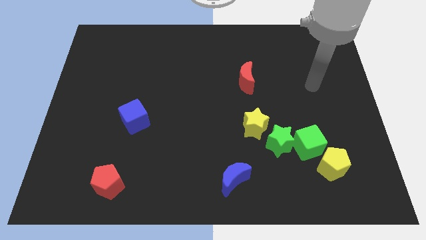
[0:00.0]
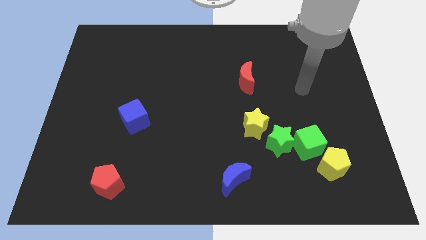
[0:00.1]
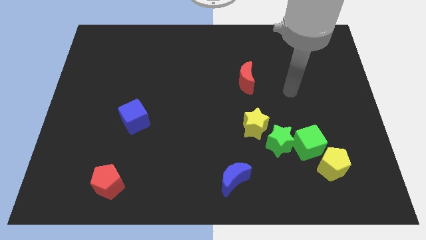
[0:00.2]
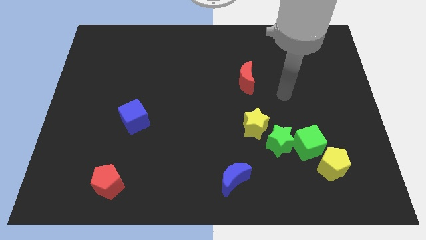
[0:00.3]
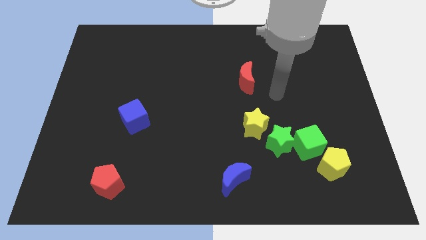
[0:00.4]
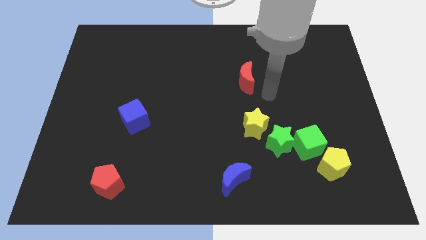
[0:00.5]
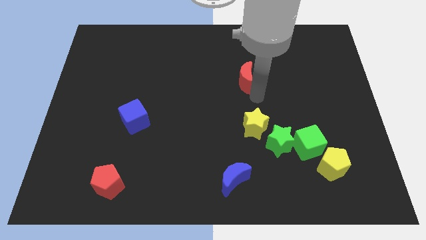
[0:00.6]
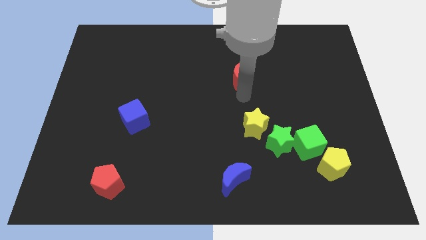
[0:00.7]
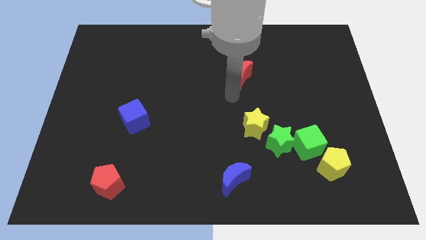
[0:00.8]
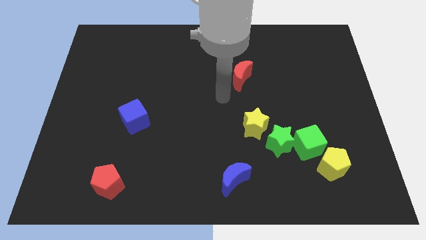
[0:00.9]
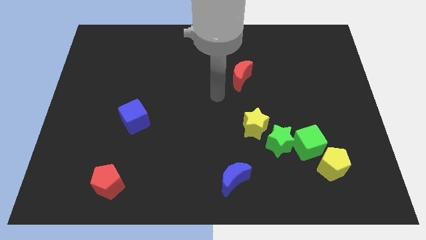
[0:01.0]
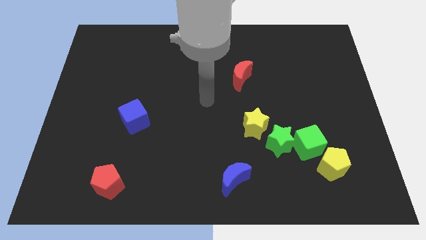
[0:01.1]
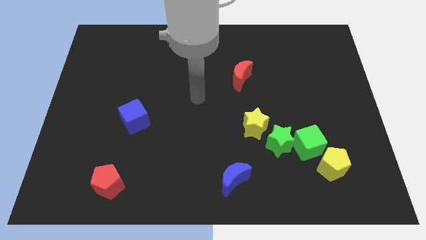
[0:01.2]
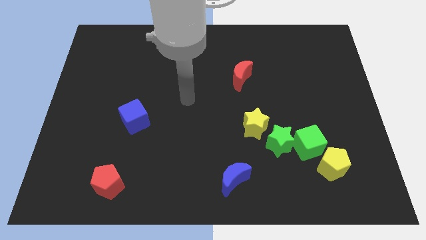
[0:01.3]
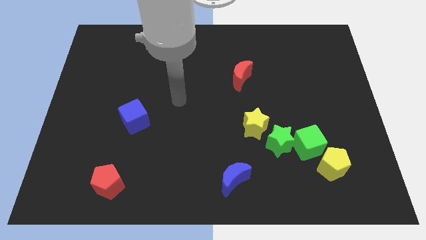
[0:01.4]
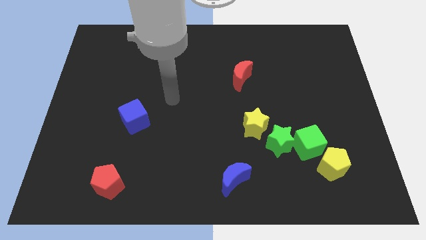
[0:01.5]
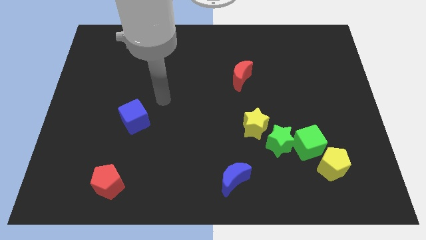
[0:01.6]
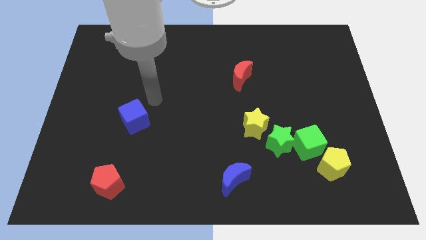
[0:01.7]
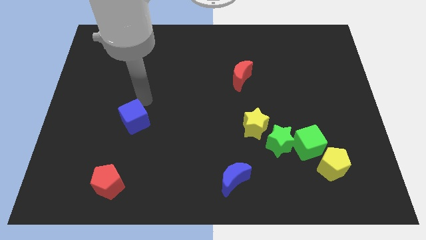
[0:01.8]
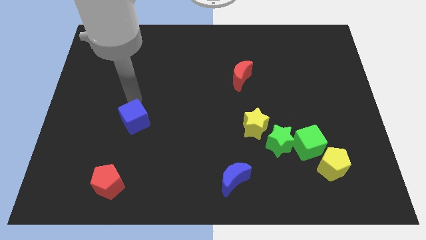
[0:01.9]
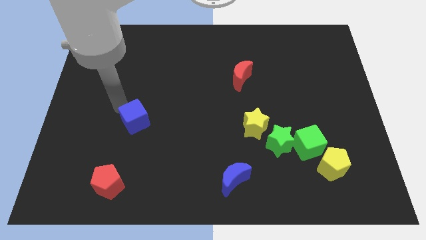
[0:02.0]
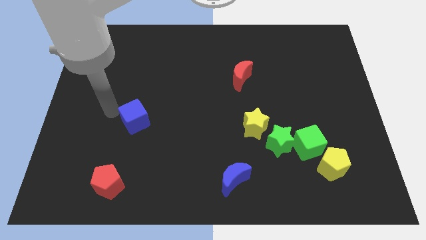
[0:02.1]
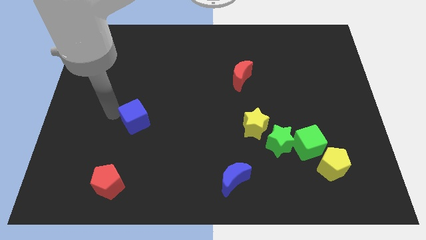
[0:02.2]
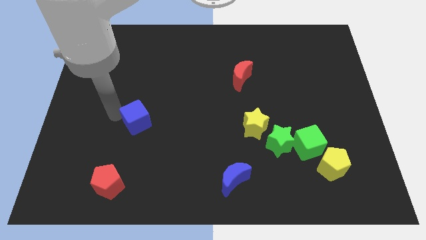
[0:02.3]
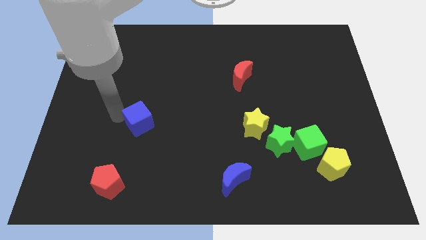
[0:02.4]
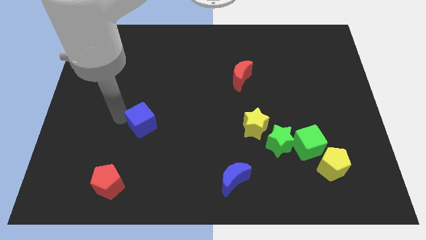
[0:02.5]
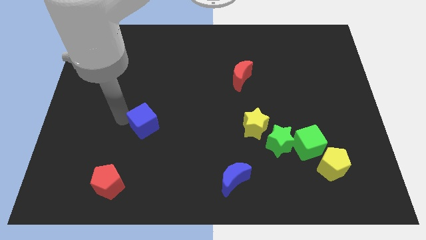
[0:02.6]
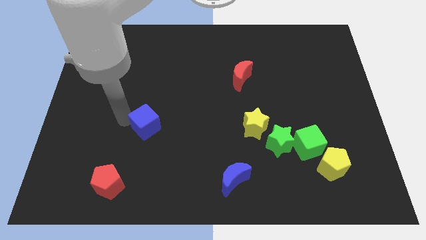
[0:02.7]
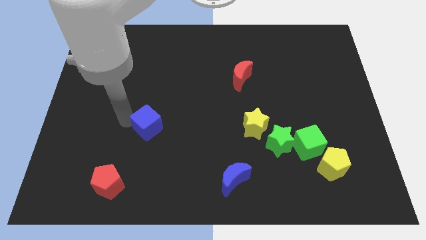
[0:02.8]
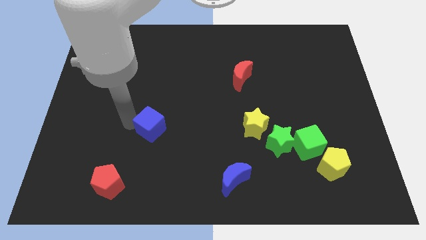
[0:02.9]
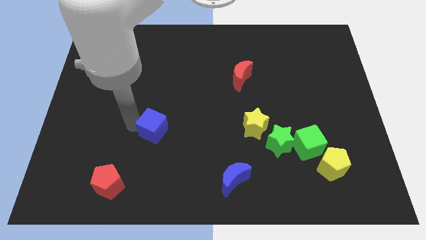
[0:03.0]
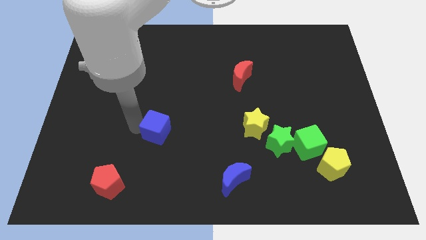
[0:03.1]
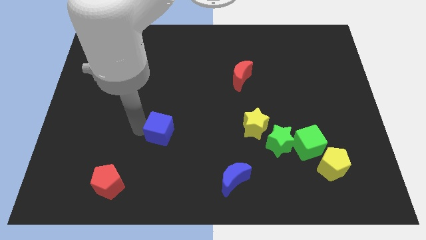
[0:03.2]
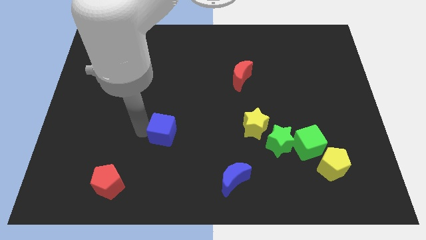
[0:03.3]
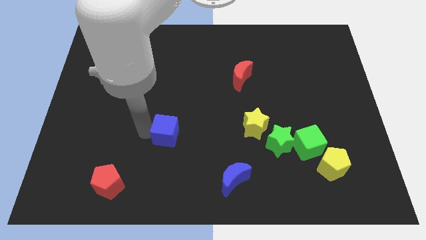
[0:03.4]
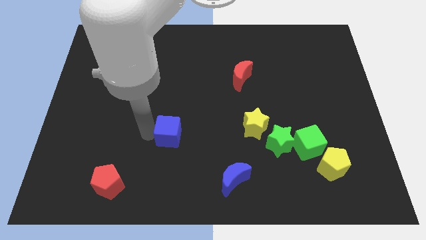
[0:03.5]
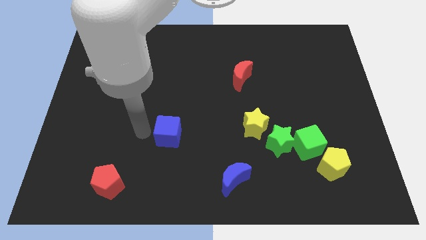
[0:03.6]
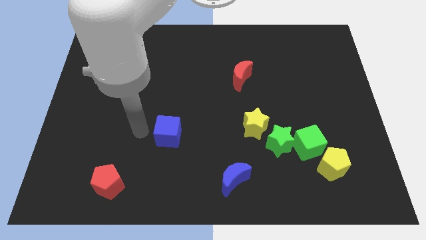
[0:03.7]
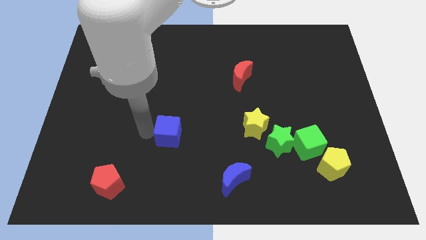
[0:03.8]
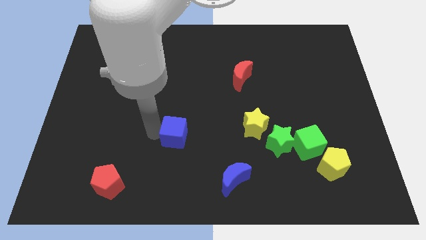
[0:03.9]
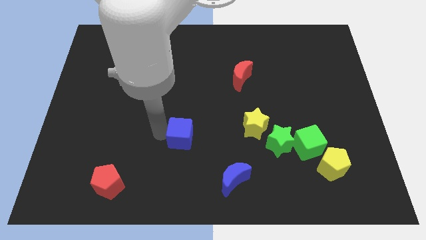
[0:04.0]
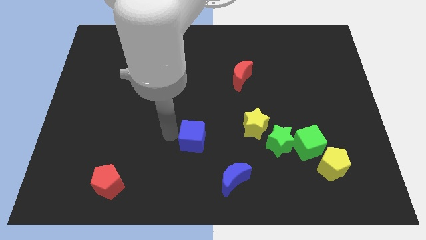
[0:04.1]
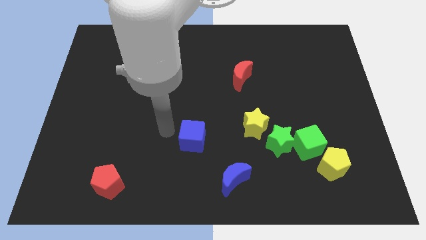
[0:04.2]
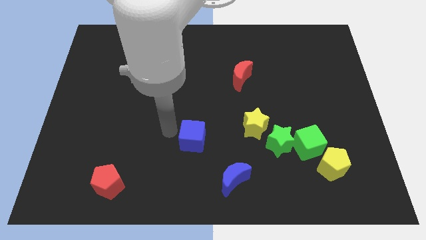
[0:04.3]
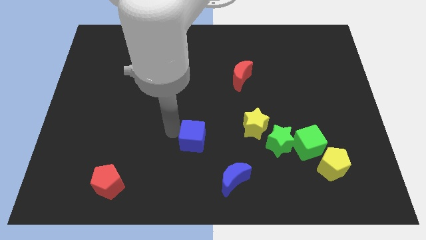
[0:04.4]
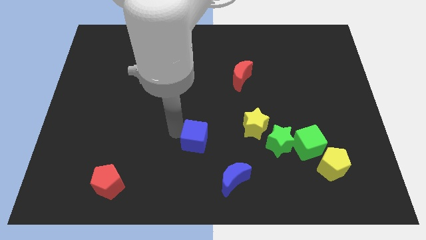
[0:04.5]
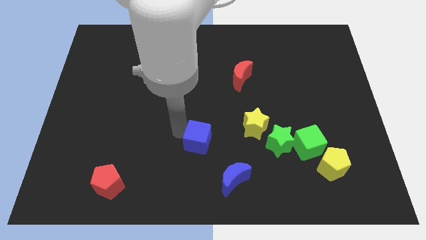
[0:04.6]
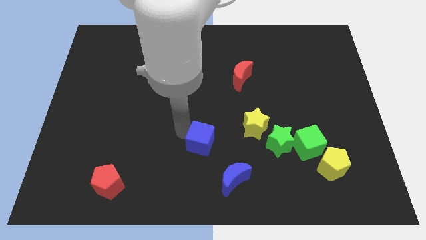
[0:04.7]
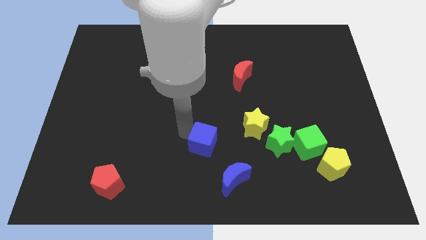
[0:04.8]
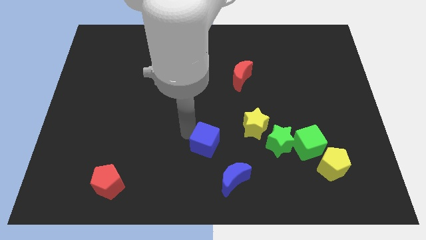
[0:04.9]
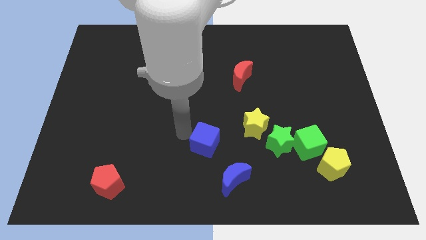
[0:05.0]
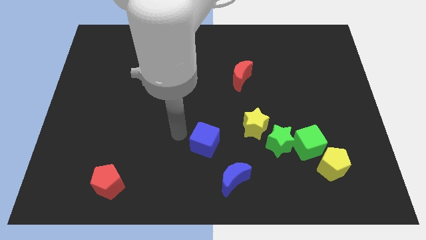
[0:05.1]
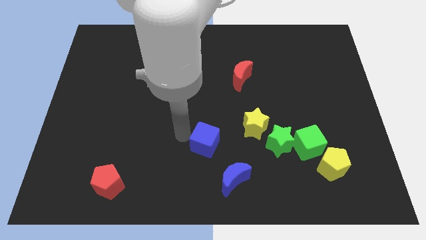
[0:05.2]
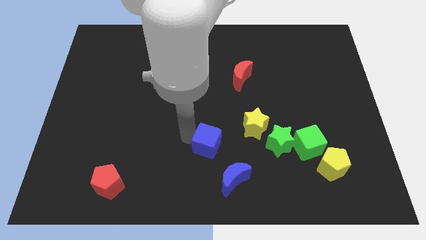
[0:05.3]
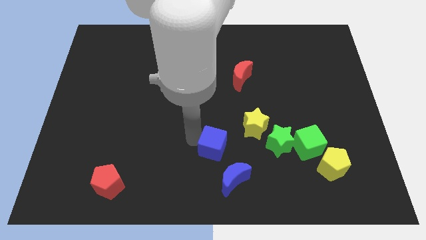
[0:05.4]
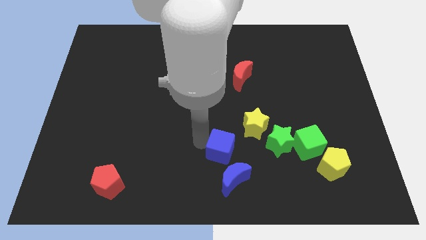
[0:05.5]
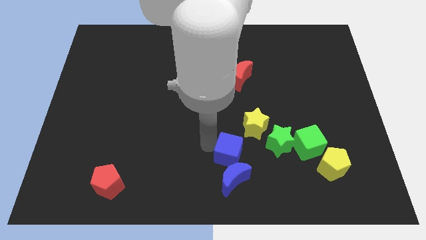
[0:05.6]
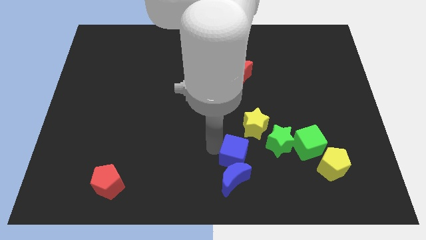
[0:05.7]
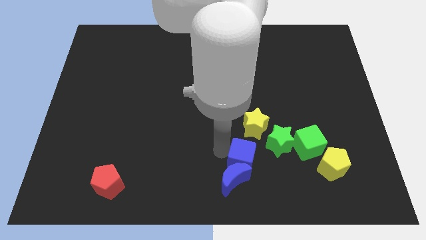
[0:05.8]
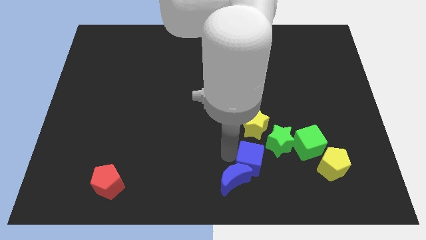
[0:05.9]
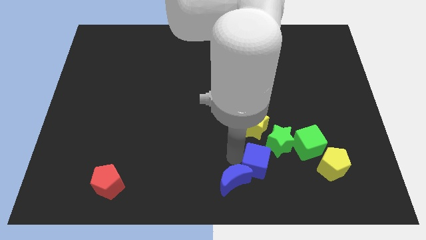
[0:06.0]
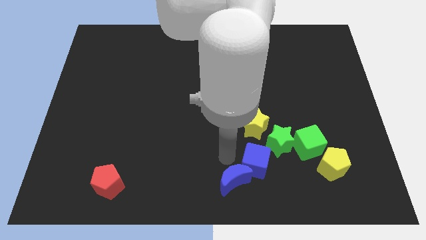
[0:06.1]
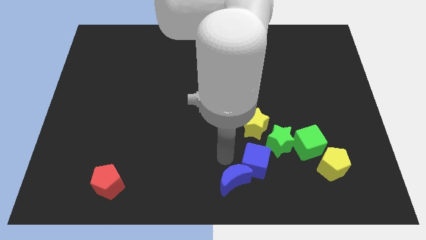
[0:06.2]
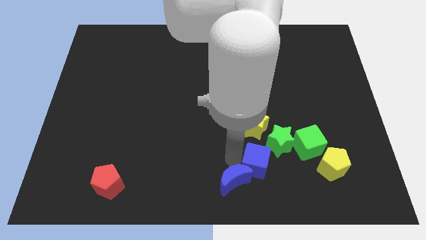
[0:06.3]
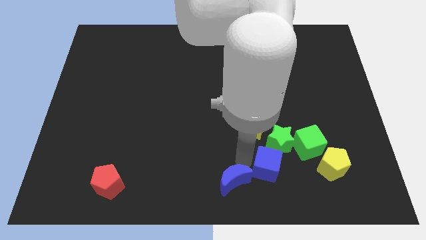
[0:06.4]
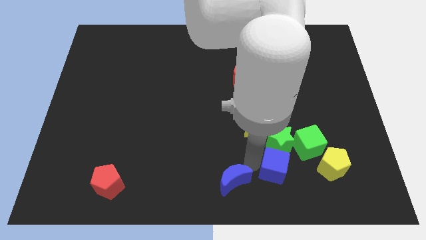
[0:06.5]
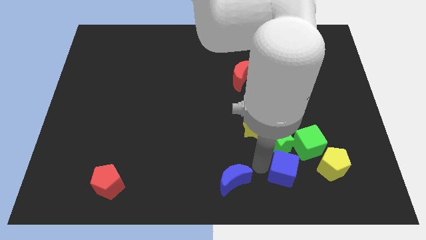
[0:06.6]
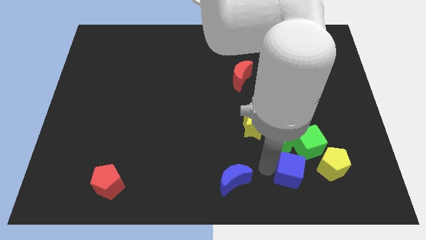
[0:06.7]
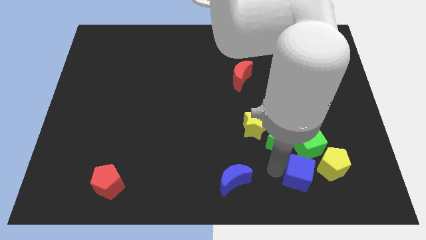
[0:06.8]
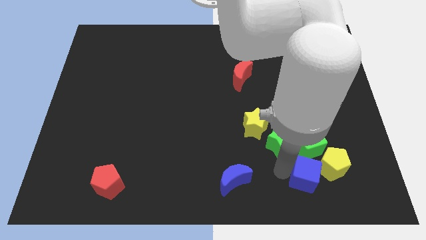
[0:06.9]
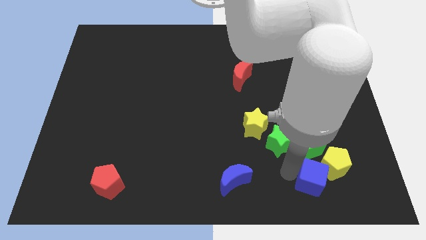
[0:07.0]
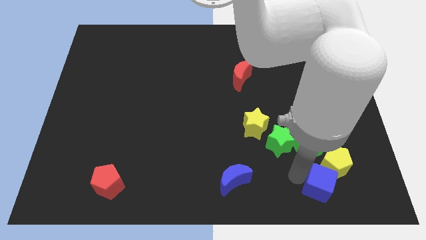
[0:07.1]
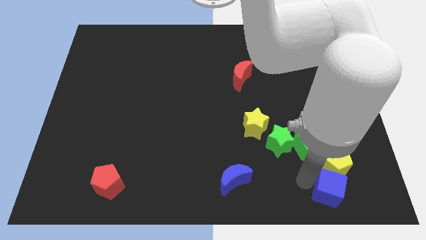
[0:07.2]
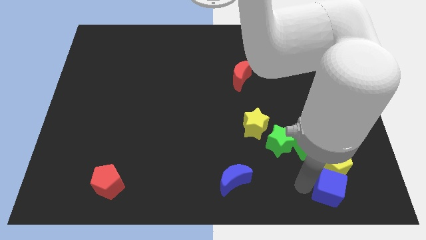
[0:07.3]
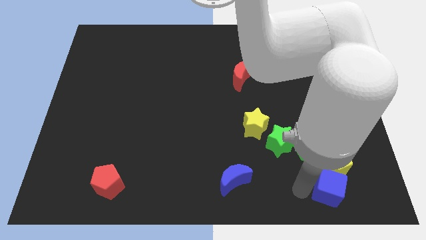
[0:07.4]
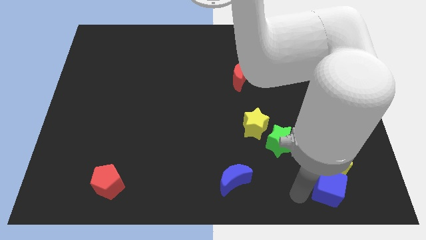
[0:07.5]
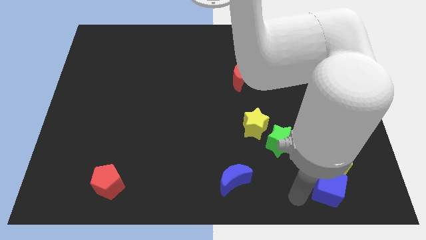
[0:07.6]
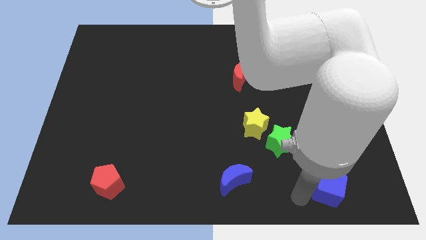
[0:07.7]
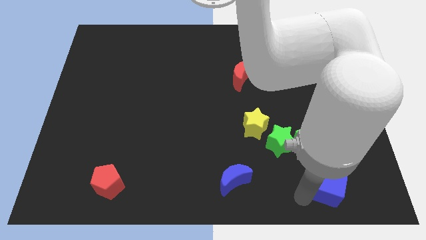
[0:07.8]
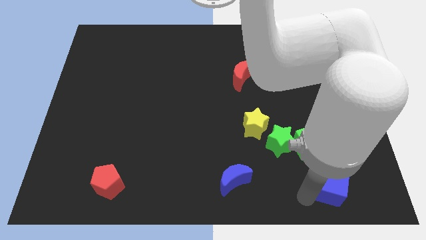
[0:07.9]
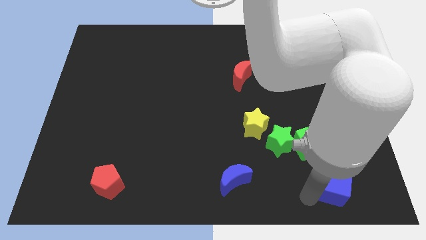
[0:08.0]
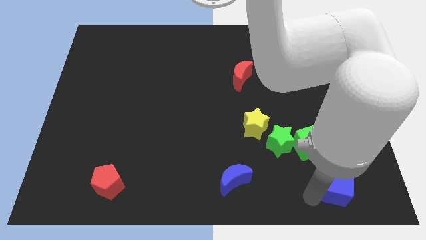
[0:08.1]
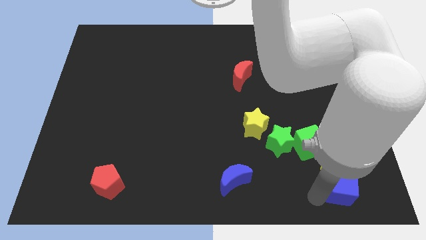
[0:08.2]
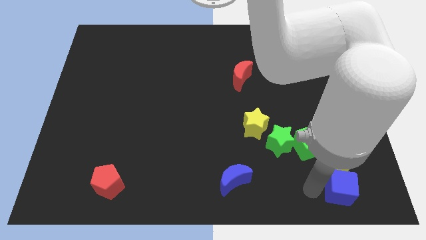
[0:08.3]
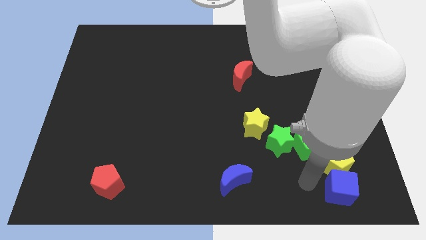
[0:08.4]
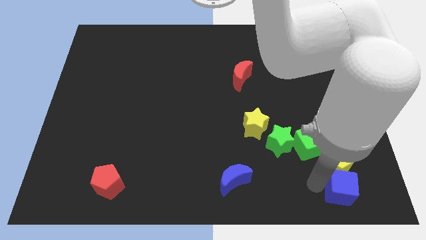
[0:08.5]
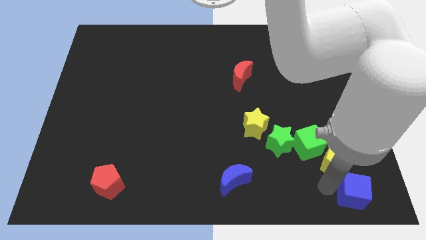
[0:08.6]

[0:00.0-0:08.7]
move the blue cube to the bottom right corner
